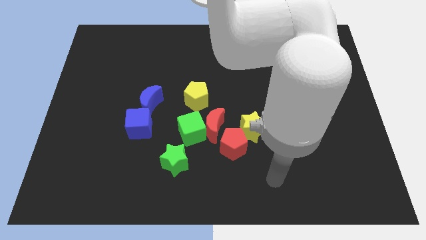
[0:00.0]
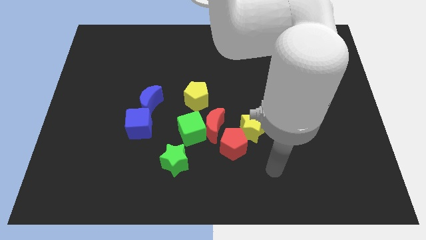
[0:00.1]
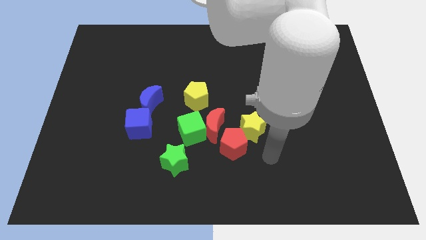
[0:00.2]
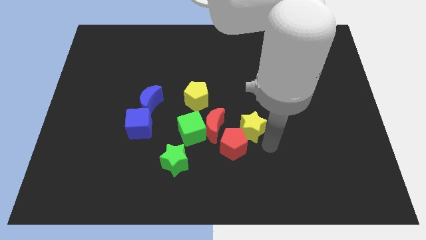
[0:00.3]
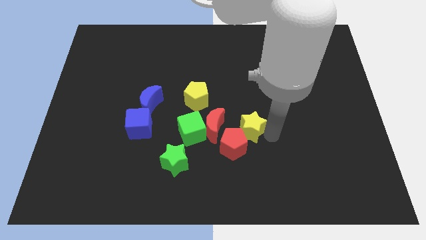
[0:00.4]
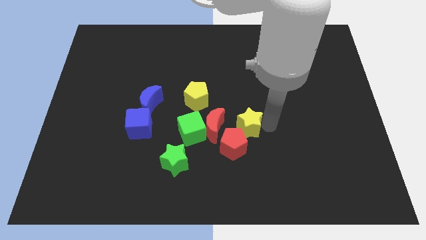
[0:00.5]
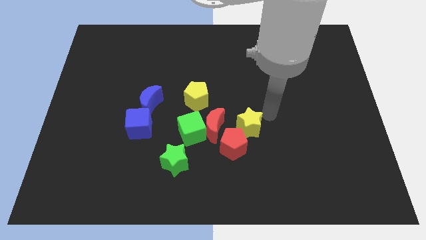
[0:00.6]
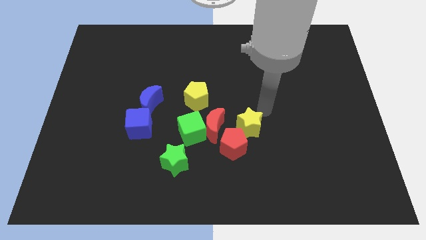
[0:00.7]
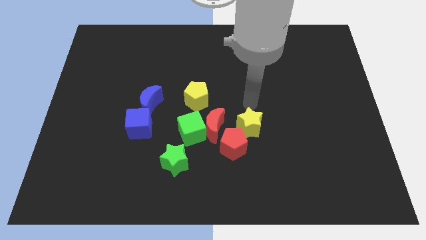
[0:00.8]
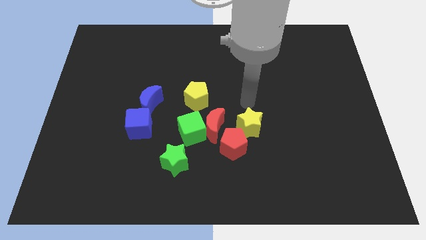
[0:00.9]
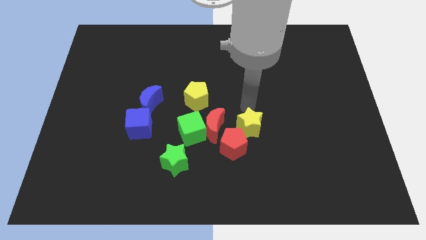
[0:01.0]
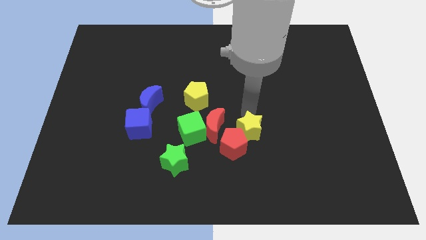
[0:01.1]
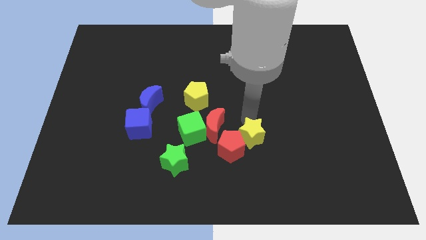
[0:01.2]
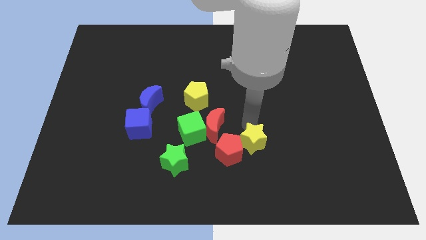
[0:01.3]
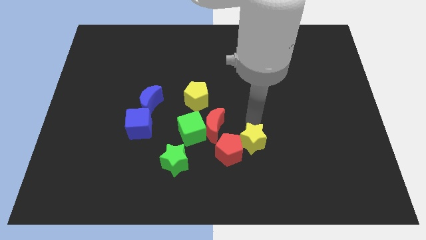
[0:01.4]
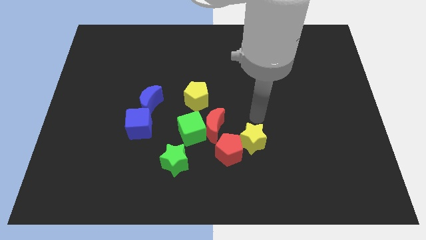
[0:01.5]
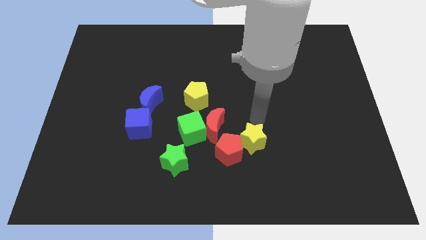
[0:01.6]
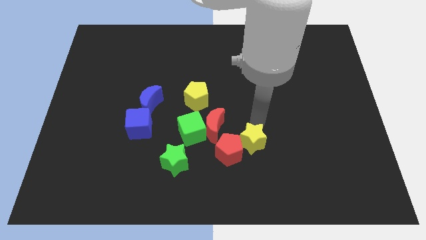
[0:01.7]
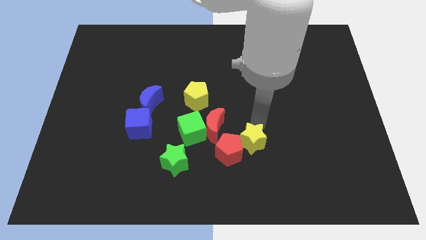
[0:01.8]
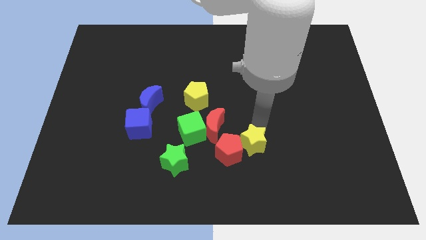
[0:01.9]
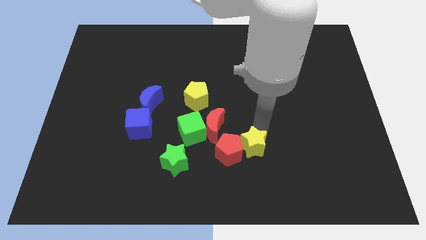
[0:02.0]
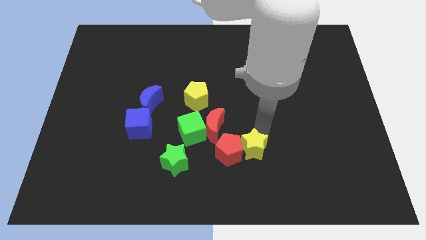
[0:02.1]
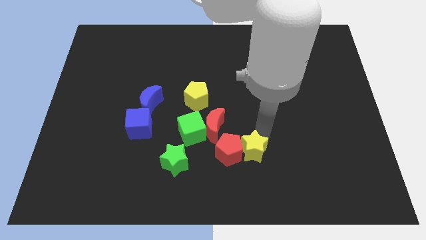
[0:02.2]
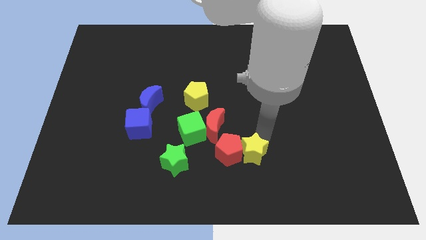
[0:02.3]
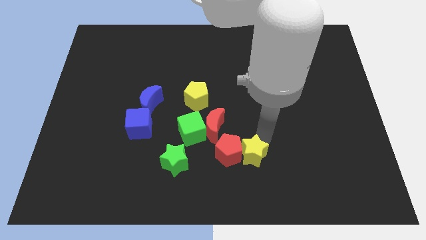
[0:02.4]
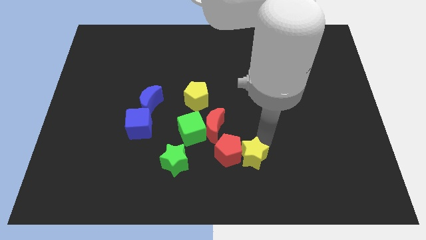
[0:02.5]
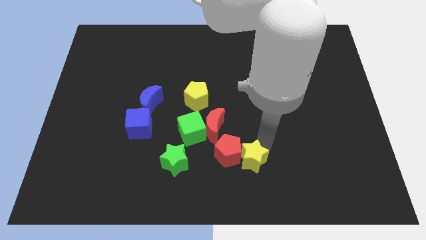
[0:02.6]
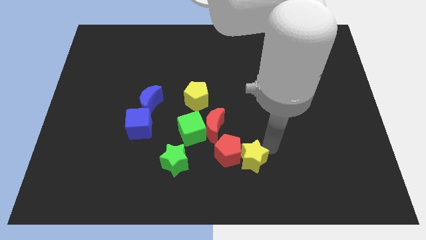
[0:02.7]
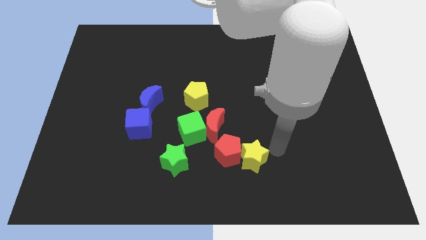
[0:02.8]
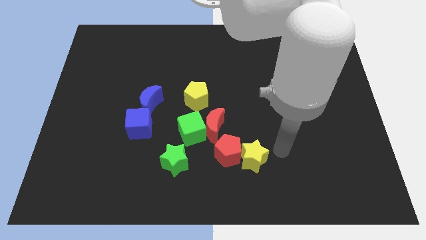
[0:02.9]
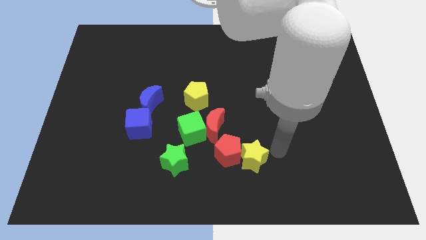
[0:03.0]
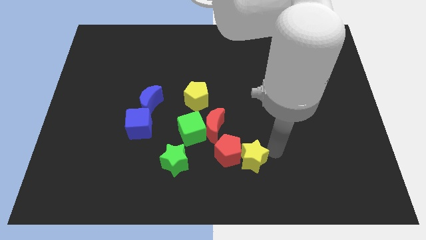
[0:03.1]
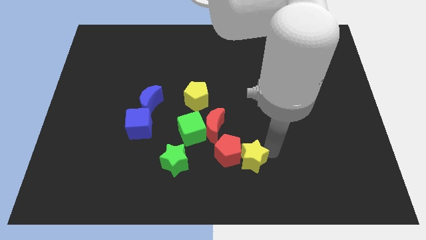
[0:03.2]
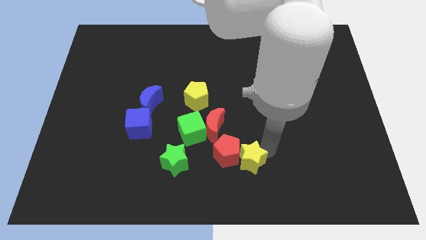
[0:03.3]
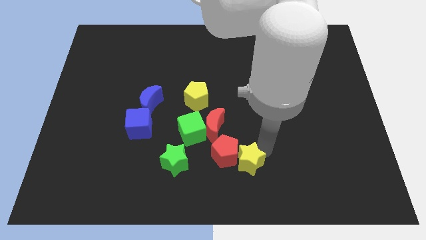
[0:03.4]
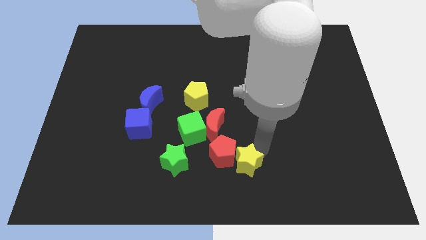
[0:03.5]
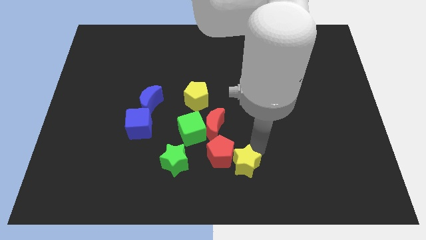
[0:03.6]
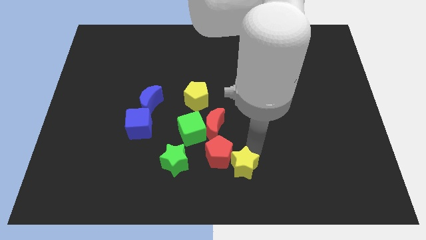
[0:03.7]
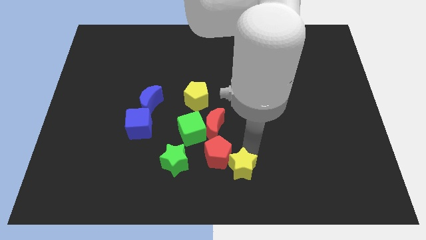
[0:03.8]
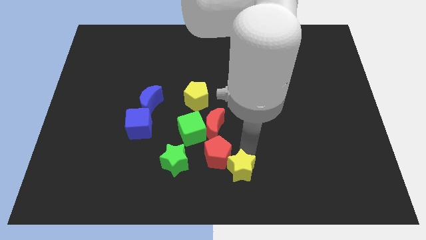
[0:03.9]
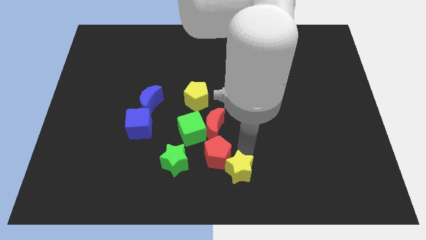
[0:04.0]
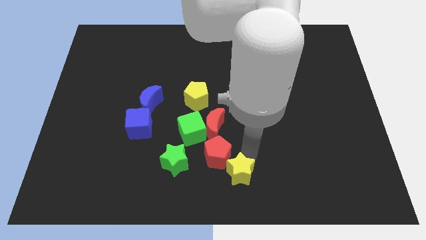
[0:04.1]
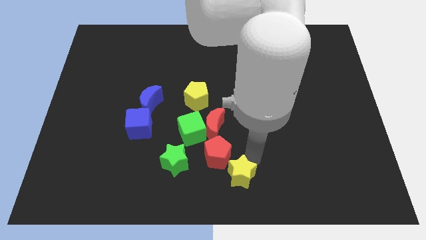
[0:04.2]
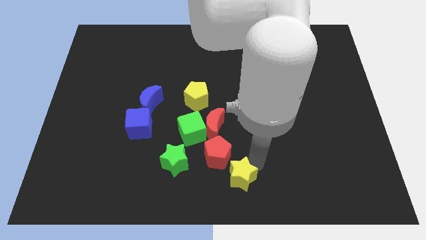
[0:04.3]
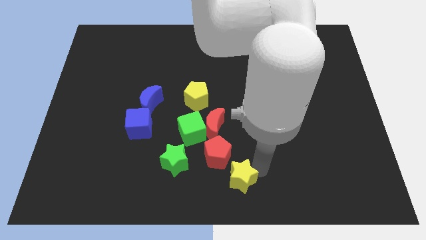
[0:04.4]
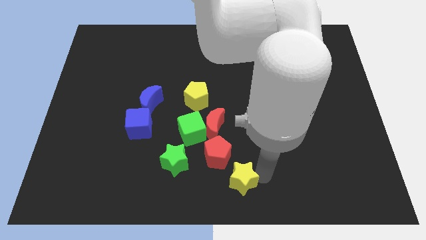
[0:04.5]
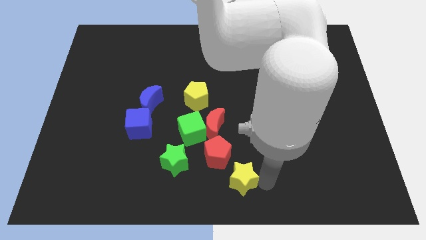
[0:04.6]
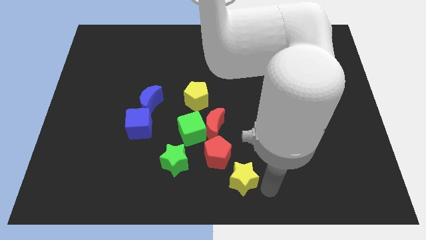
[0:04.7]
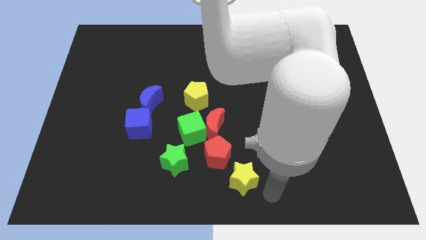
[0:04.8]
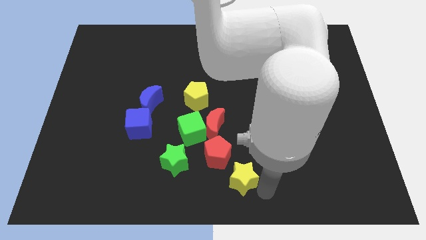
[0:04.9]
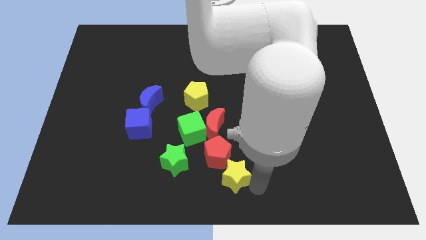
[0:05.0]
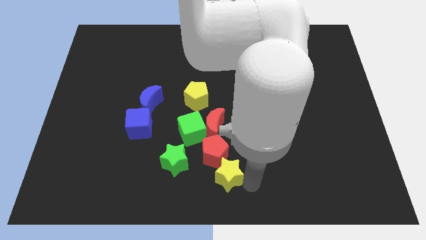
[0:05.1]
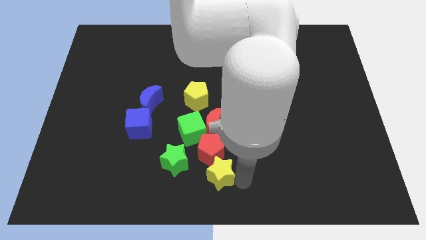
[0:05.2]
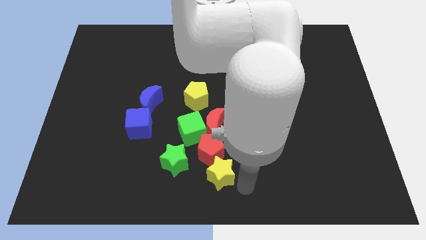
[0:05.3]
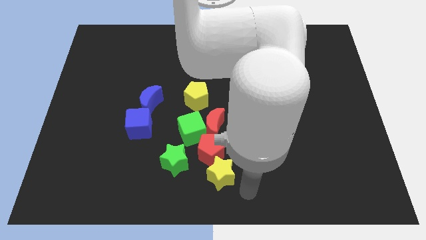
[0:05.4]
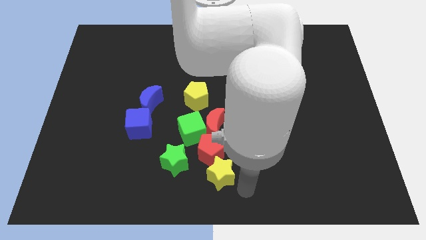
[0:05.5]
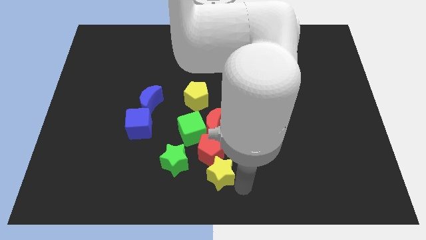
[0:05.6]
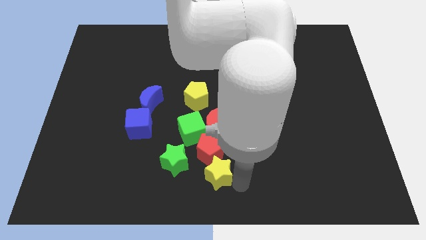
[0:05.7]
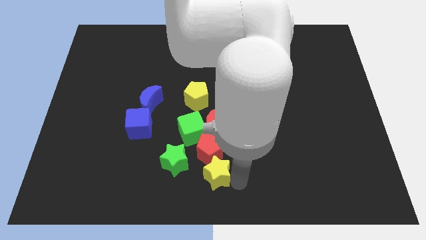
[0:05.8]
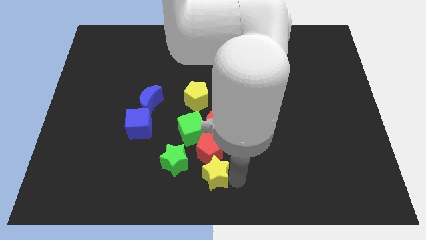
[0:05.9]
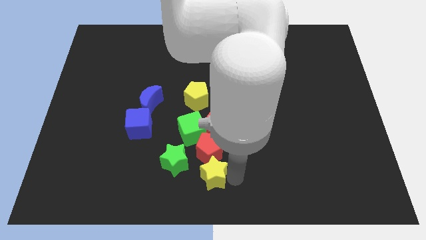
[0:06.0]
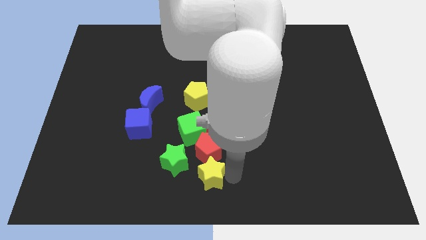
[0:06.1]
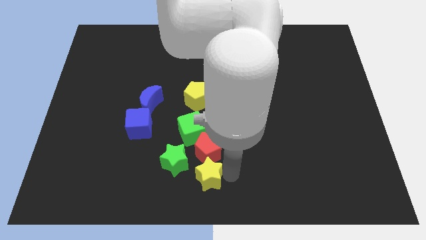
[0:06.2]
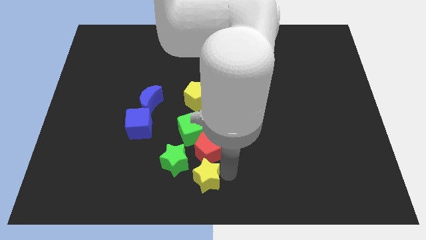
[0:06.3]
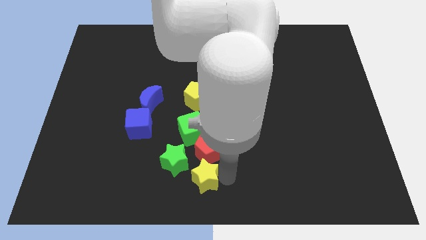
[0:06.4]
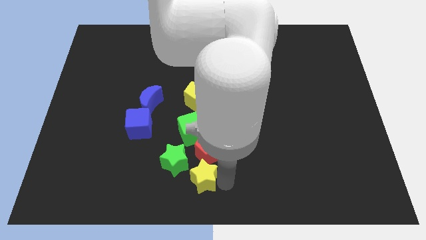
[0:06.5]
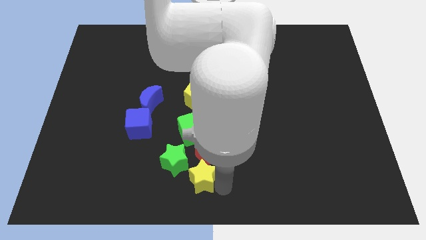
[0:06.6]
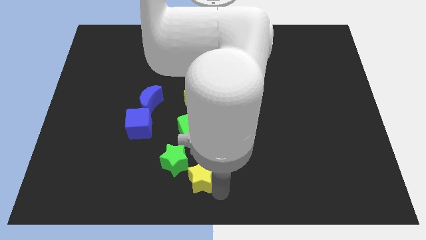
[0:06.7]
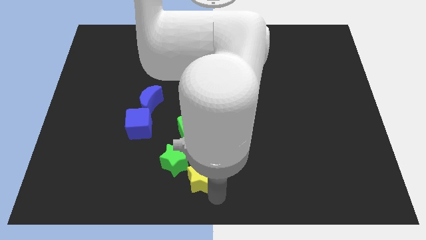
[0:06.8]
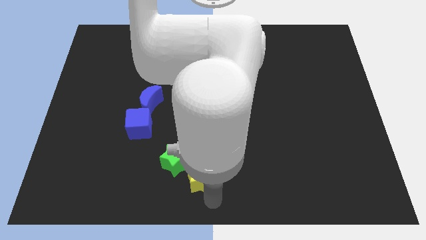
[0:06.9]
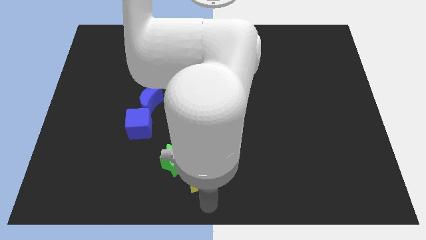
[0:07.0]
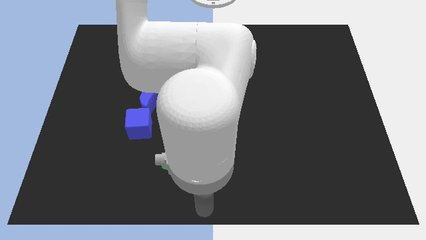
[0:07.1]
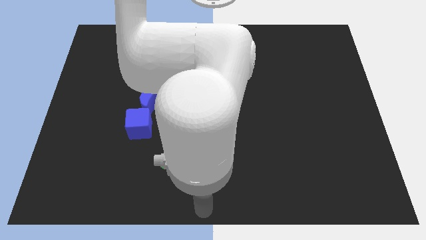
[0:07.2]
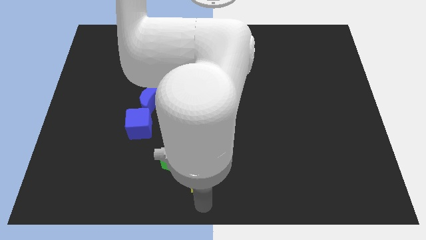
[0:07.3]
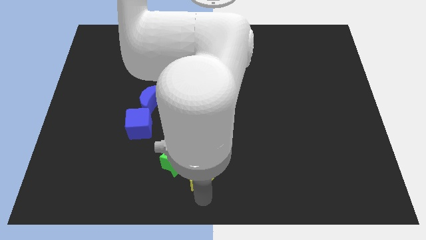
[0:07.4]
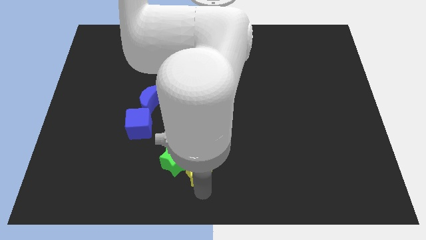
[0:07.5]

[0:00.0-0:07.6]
put the yellow star to the green star
